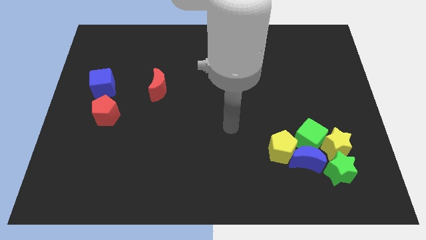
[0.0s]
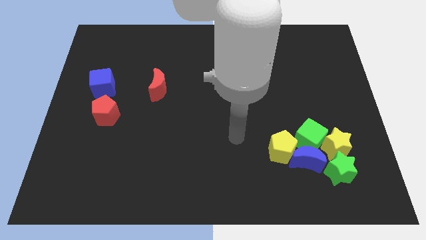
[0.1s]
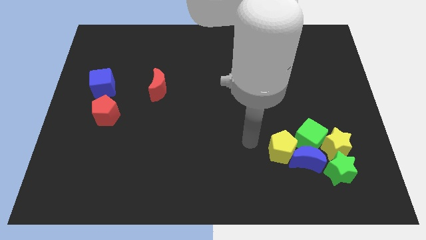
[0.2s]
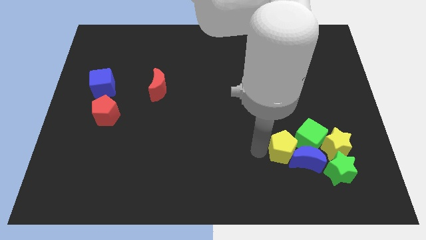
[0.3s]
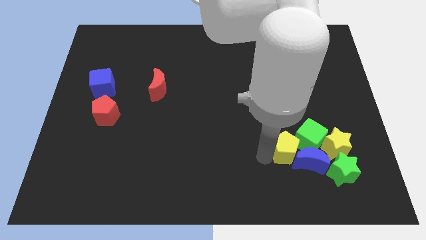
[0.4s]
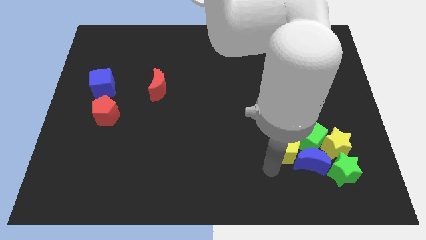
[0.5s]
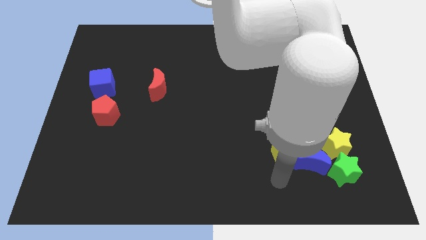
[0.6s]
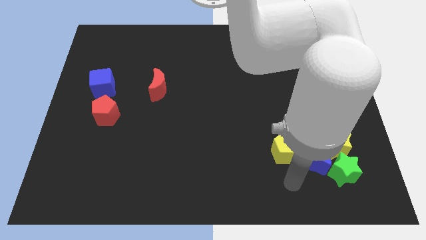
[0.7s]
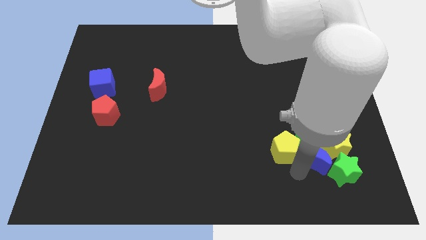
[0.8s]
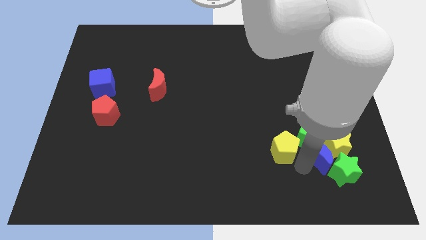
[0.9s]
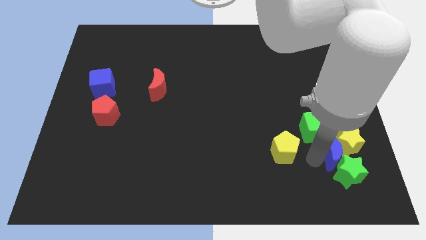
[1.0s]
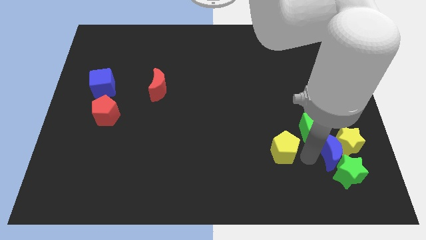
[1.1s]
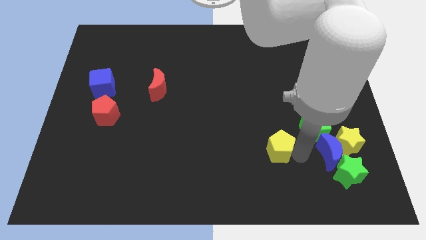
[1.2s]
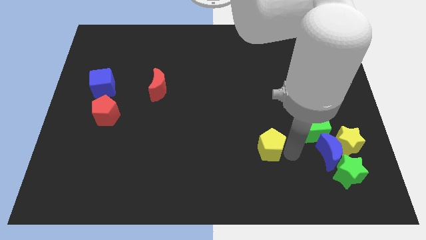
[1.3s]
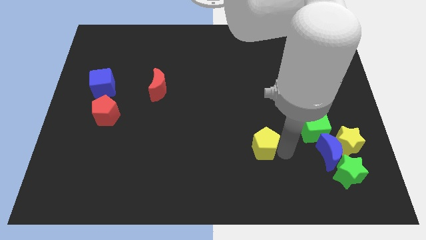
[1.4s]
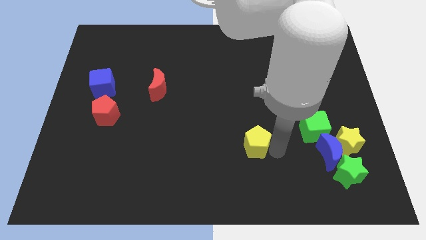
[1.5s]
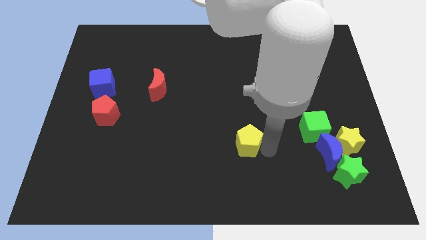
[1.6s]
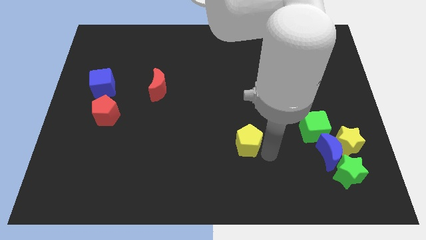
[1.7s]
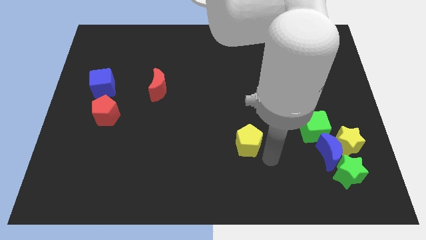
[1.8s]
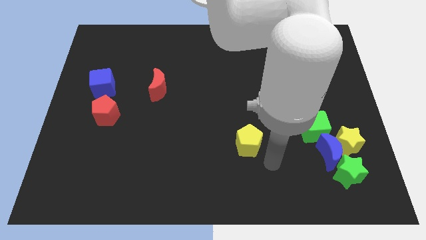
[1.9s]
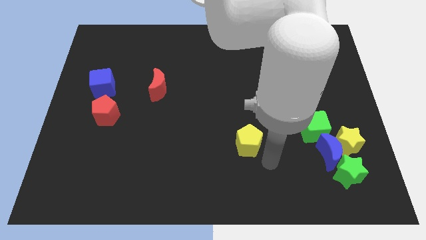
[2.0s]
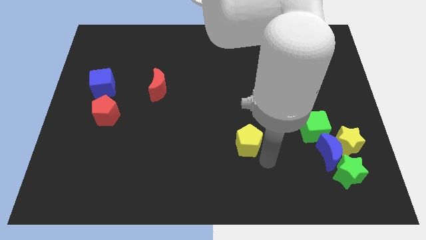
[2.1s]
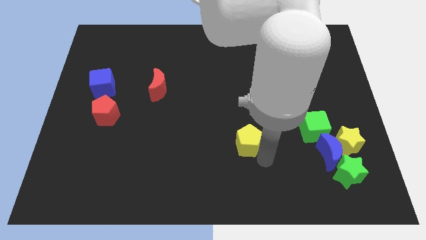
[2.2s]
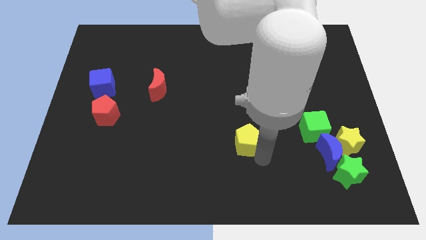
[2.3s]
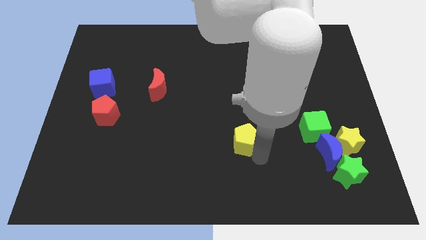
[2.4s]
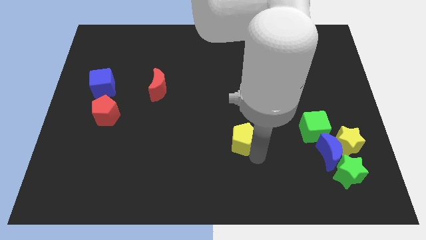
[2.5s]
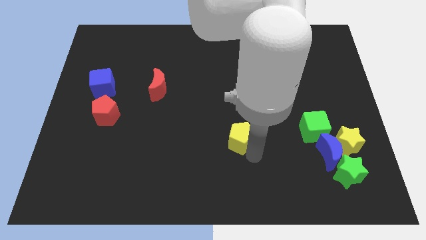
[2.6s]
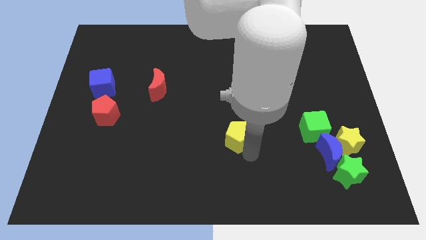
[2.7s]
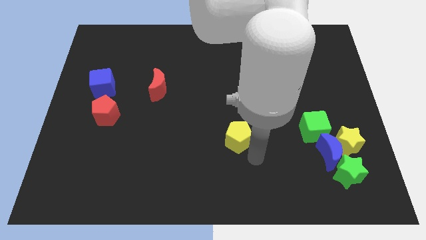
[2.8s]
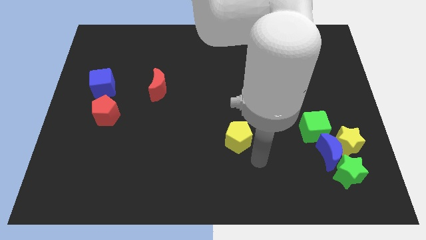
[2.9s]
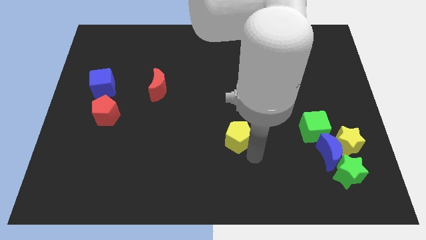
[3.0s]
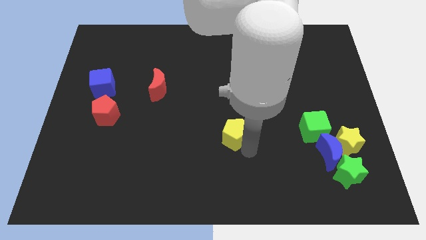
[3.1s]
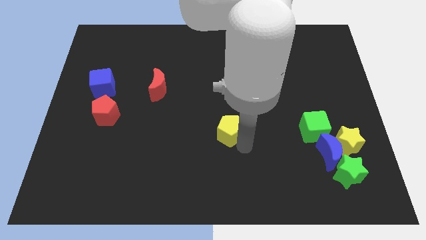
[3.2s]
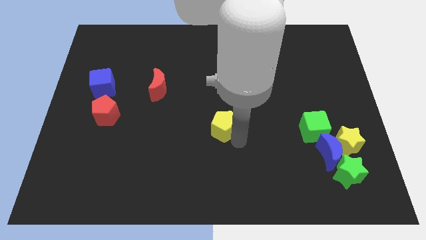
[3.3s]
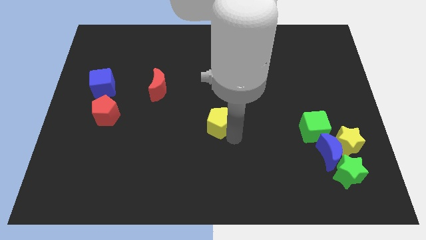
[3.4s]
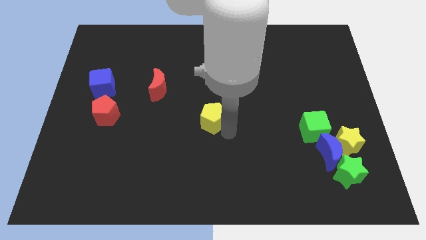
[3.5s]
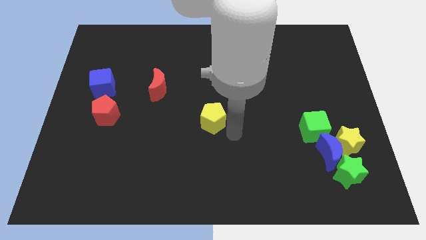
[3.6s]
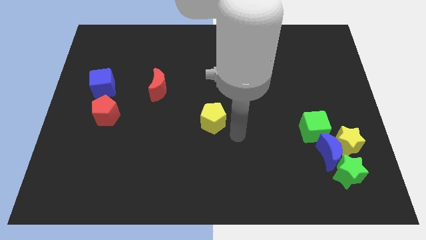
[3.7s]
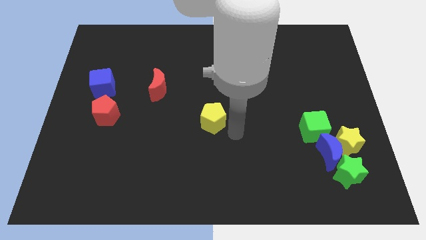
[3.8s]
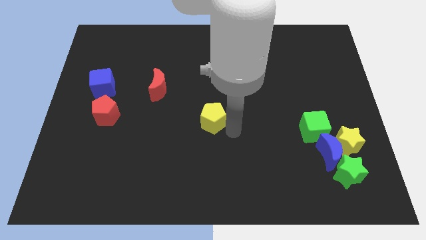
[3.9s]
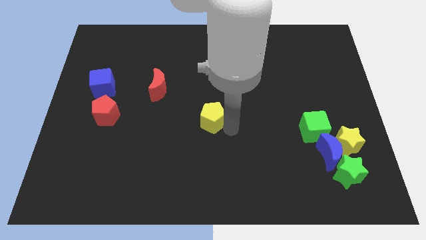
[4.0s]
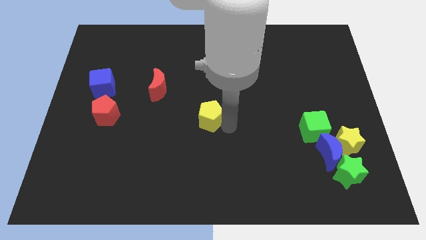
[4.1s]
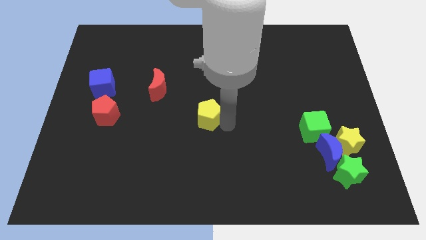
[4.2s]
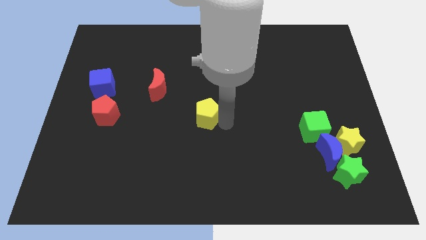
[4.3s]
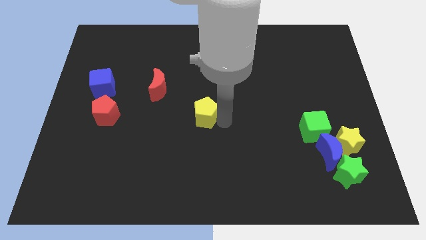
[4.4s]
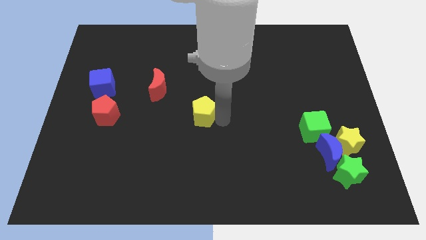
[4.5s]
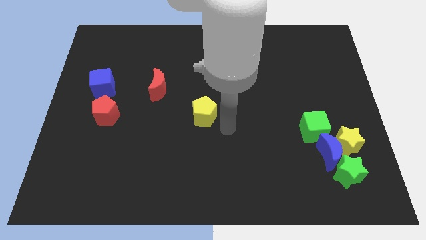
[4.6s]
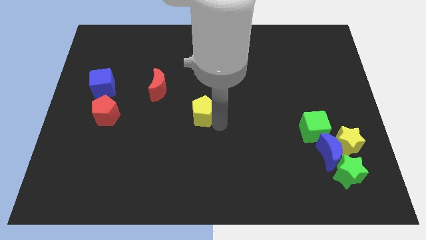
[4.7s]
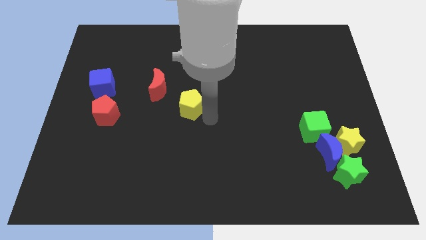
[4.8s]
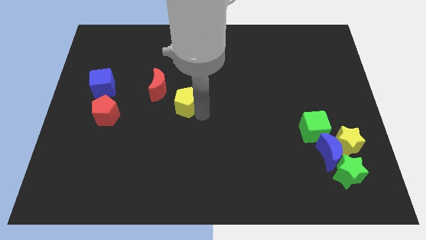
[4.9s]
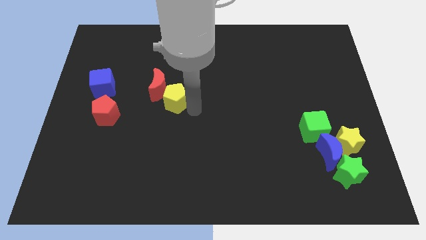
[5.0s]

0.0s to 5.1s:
move the yellow pentagon to the red moon
